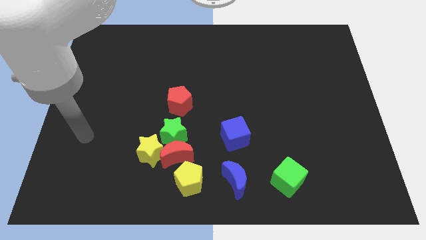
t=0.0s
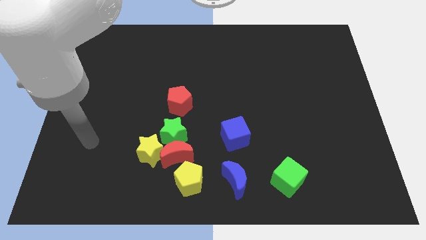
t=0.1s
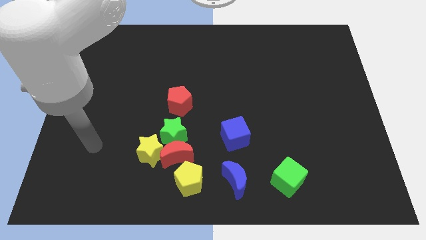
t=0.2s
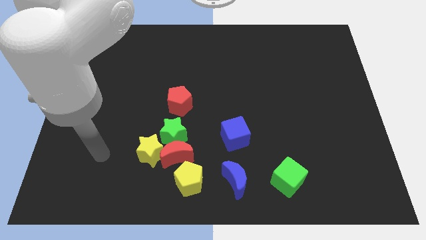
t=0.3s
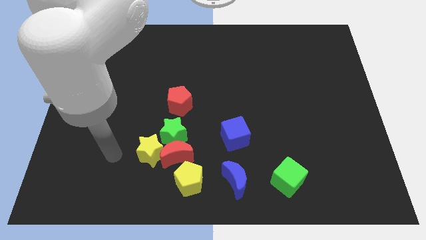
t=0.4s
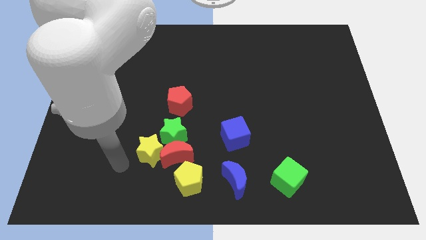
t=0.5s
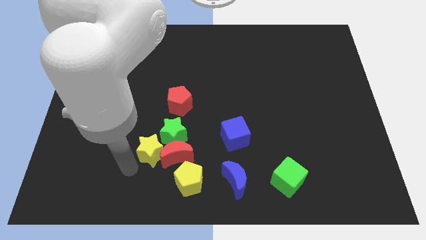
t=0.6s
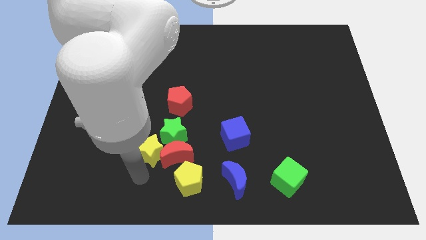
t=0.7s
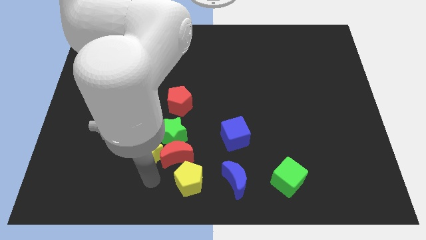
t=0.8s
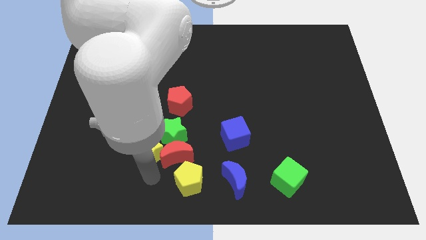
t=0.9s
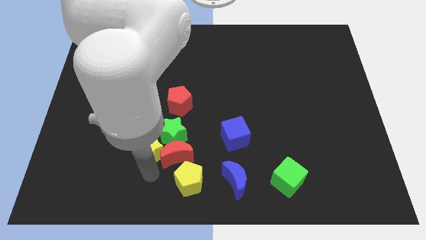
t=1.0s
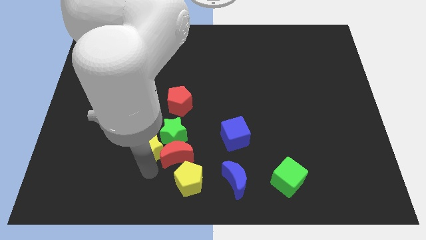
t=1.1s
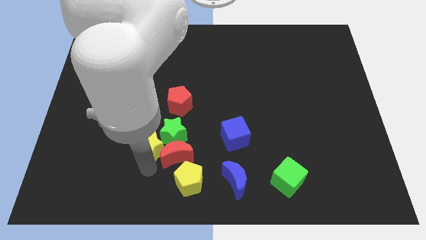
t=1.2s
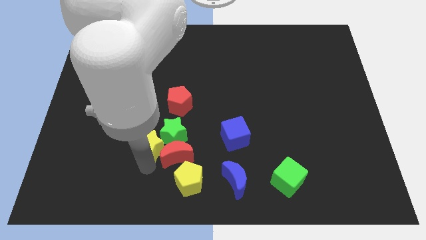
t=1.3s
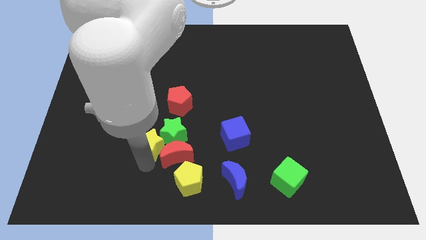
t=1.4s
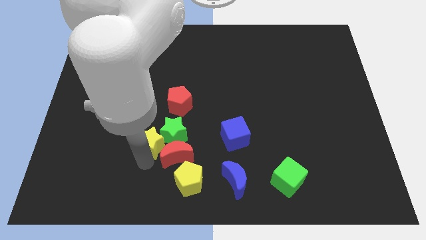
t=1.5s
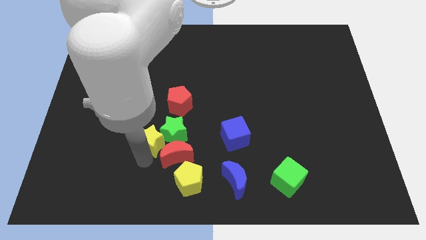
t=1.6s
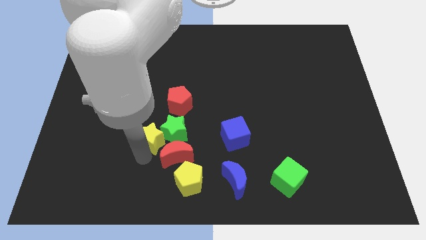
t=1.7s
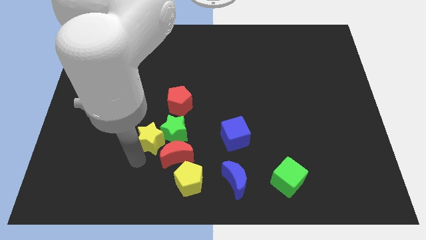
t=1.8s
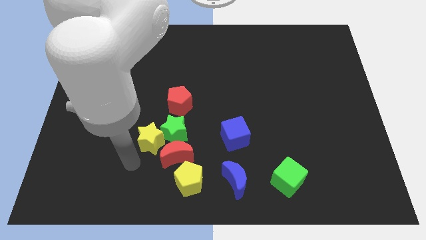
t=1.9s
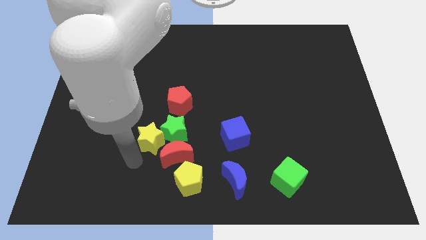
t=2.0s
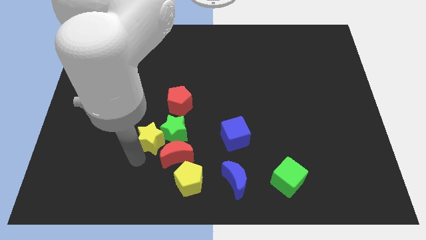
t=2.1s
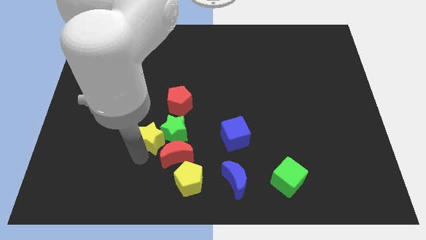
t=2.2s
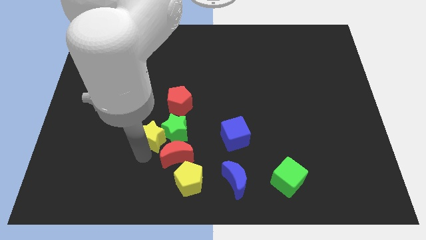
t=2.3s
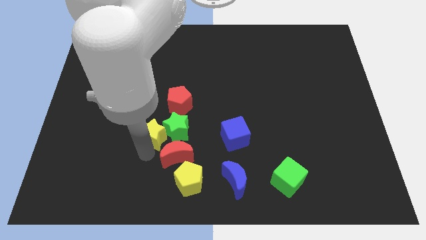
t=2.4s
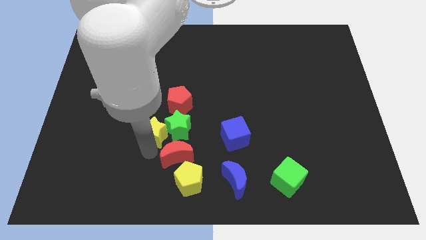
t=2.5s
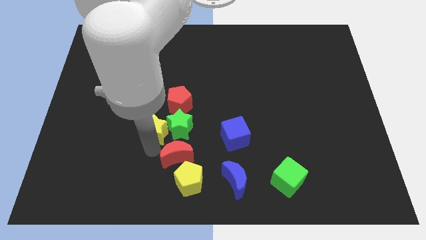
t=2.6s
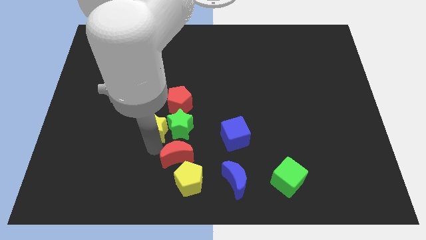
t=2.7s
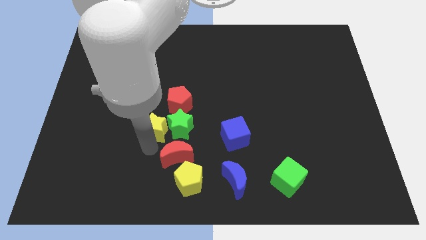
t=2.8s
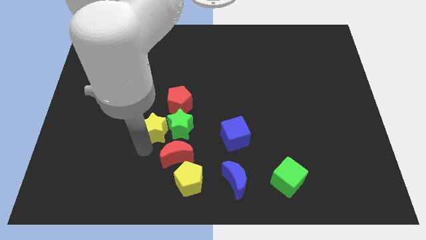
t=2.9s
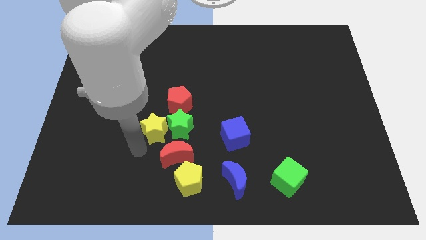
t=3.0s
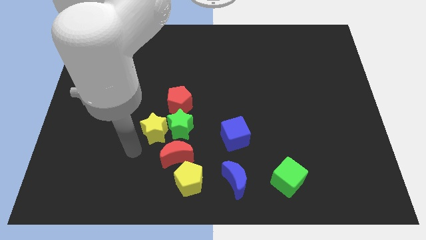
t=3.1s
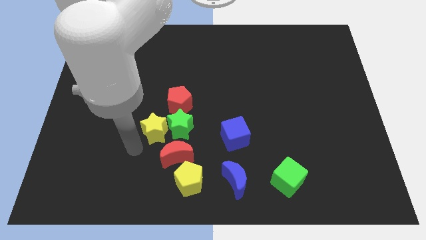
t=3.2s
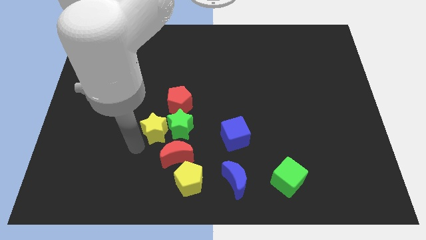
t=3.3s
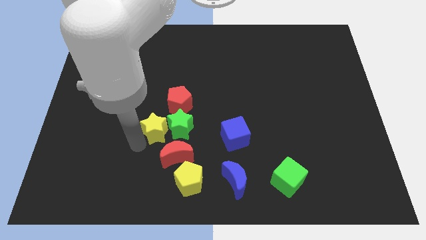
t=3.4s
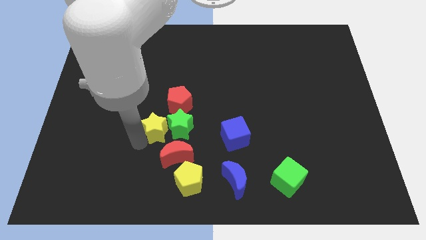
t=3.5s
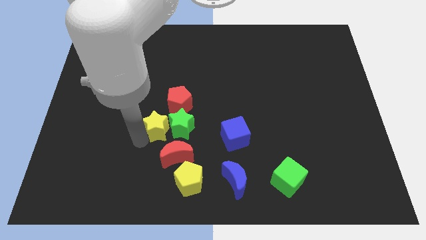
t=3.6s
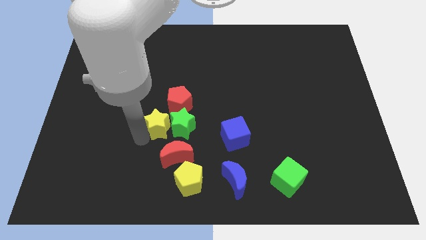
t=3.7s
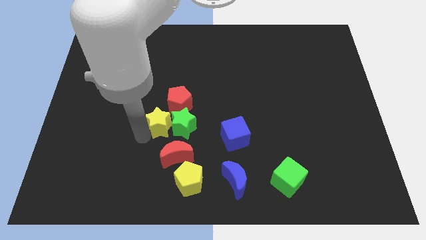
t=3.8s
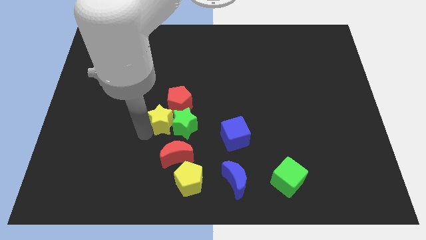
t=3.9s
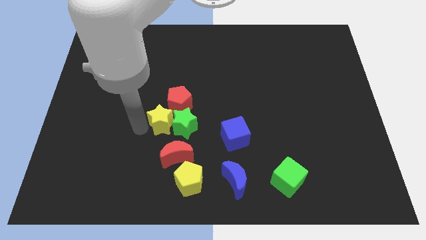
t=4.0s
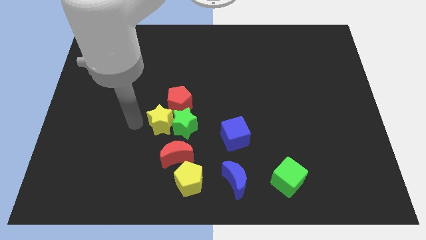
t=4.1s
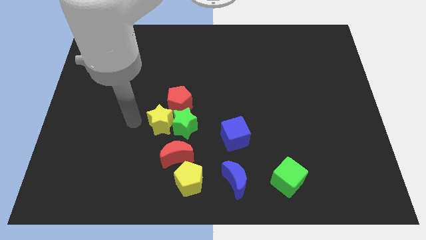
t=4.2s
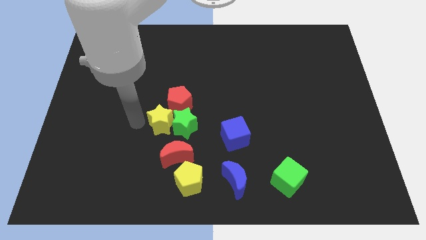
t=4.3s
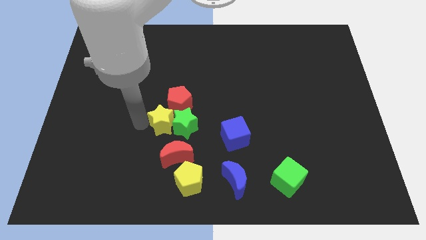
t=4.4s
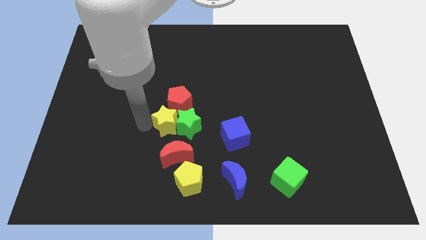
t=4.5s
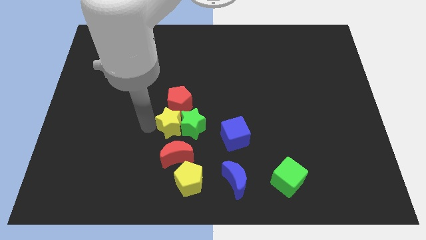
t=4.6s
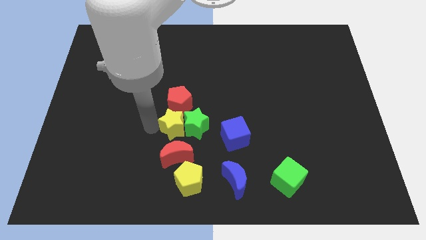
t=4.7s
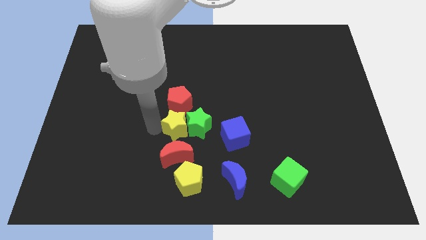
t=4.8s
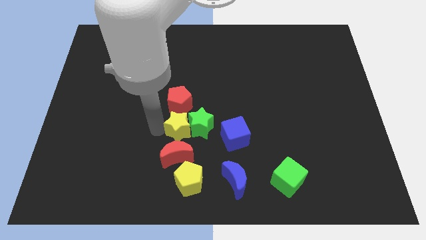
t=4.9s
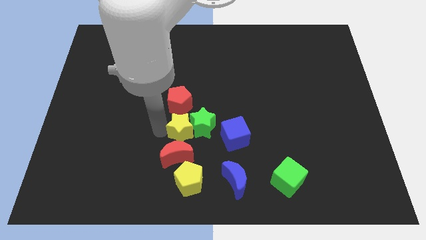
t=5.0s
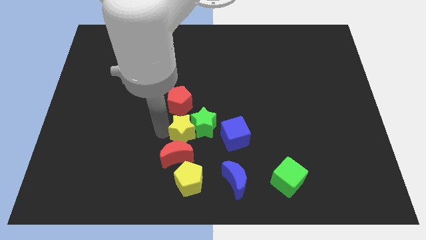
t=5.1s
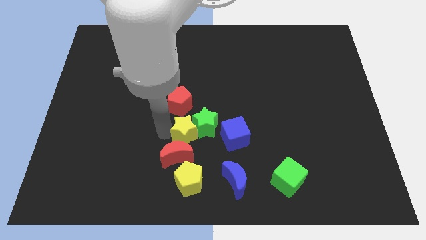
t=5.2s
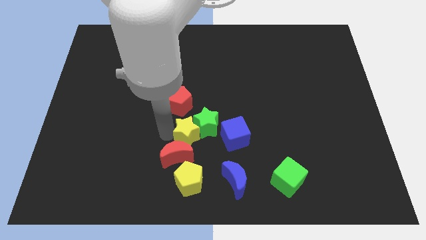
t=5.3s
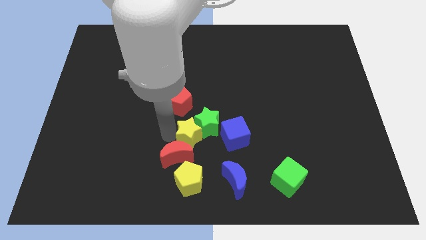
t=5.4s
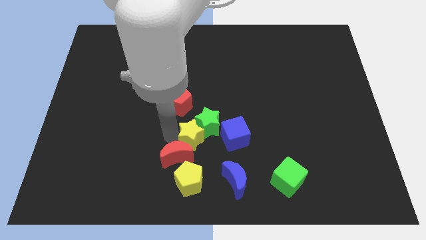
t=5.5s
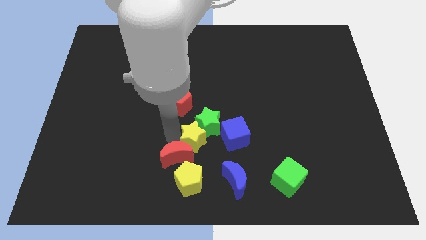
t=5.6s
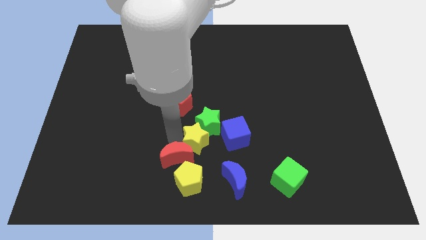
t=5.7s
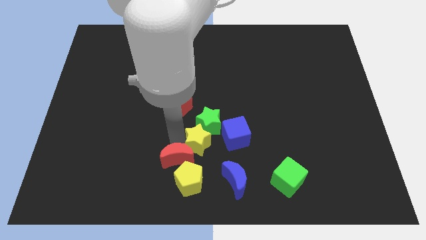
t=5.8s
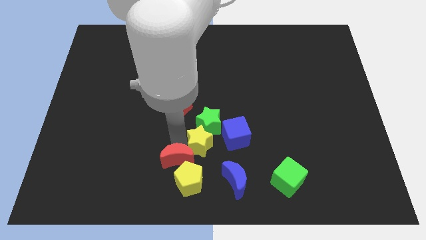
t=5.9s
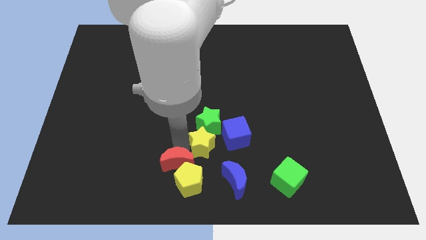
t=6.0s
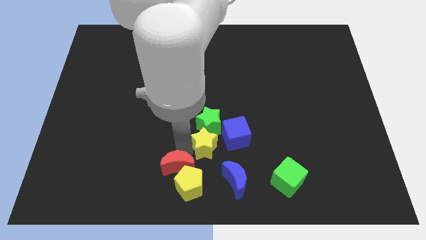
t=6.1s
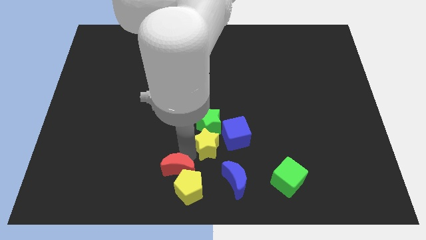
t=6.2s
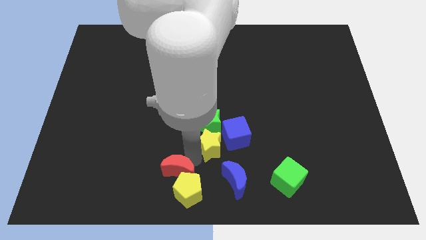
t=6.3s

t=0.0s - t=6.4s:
slide the yellow star next to the blue cube

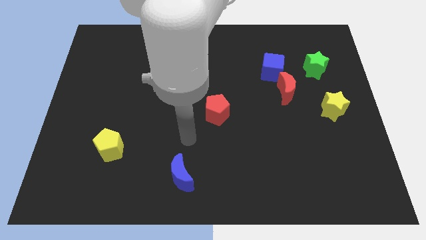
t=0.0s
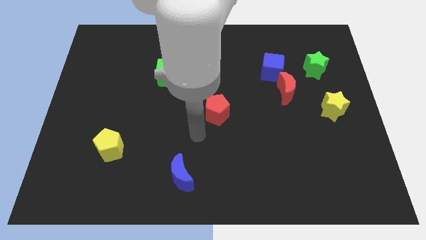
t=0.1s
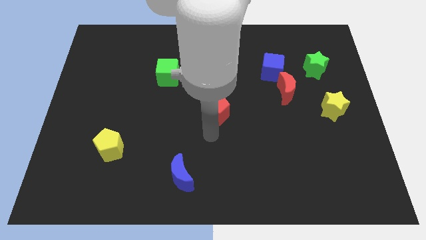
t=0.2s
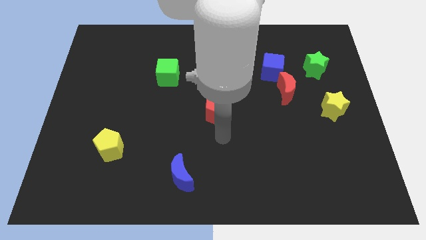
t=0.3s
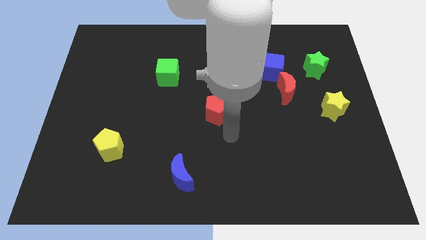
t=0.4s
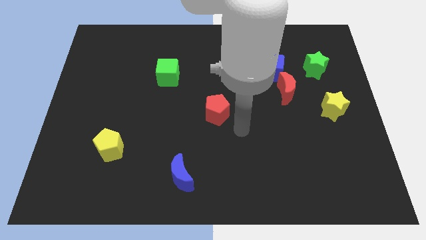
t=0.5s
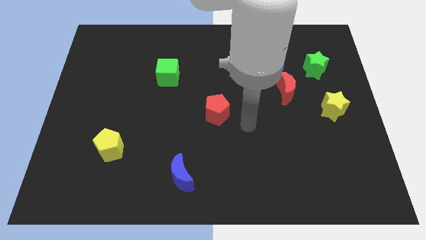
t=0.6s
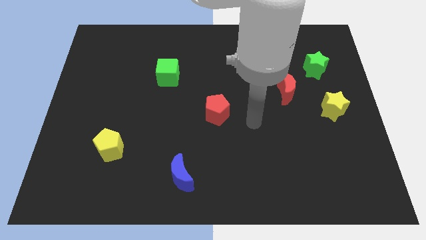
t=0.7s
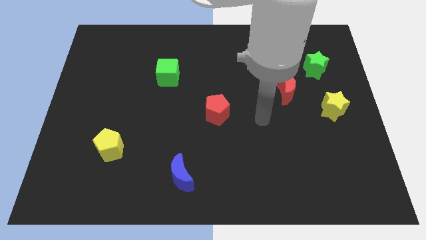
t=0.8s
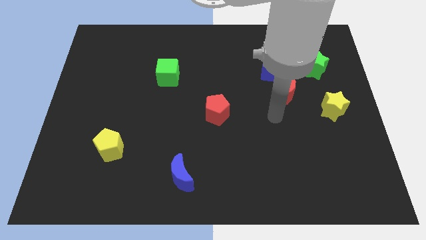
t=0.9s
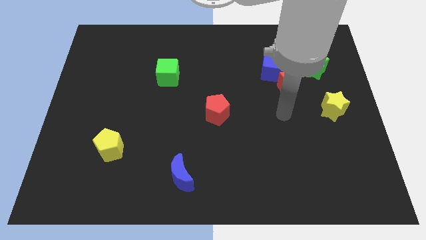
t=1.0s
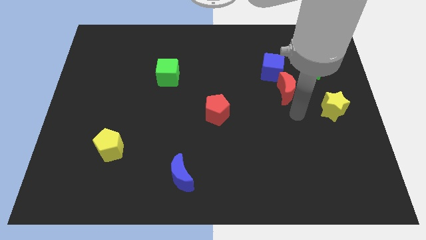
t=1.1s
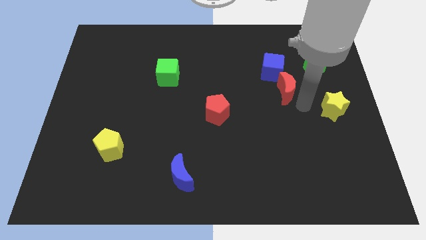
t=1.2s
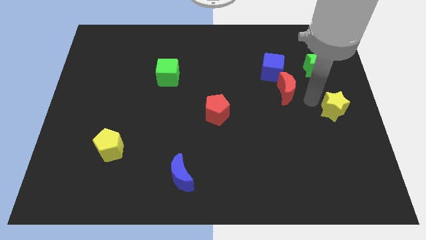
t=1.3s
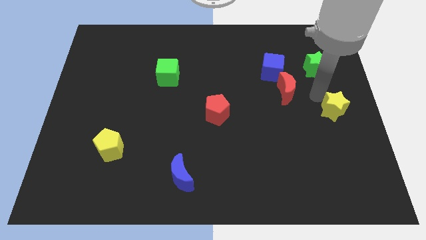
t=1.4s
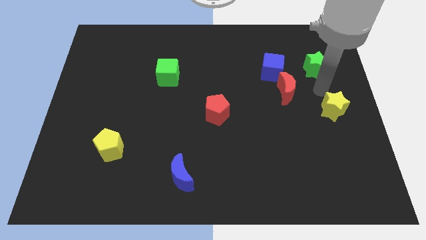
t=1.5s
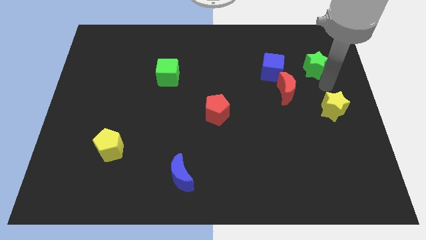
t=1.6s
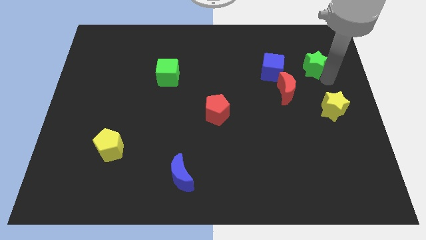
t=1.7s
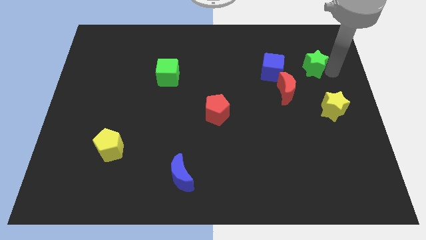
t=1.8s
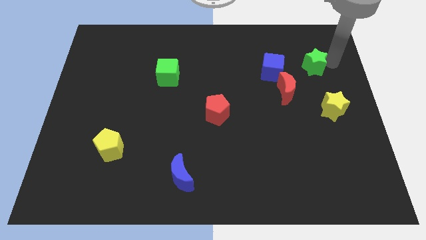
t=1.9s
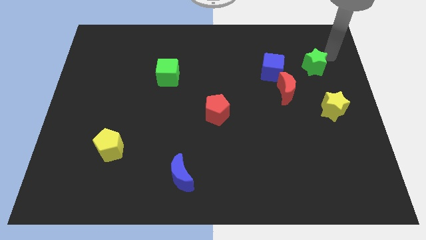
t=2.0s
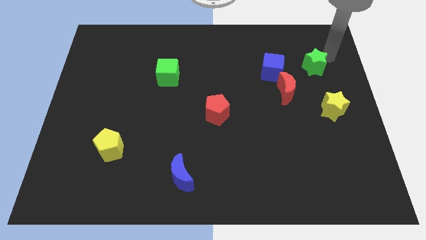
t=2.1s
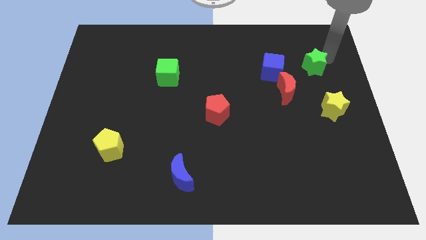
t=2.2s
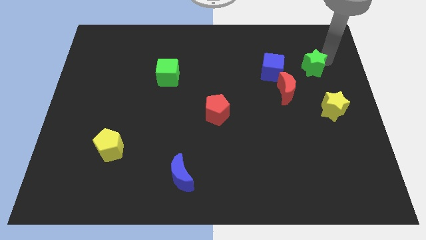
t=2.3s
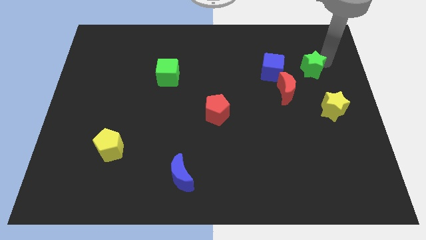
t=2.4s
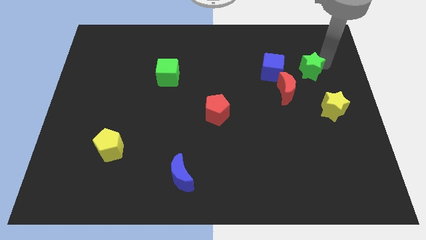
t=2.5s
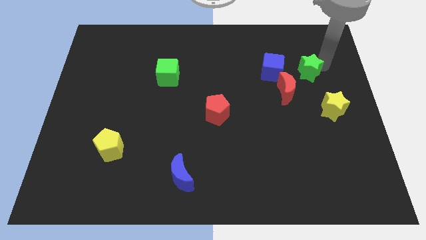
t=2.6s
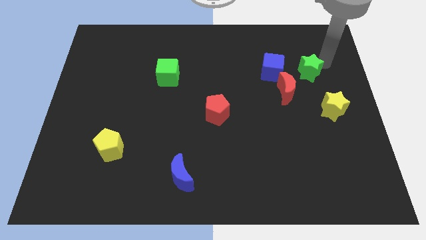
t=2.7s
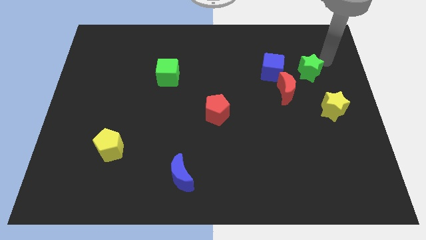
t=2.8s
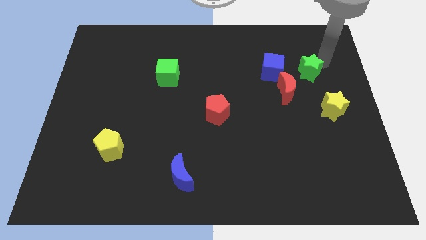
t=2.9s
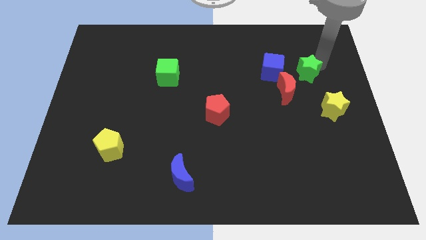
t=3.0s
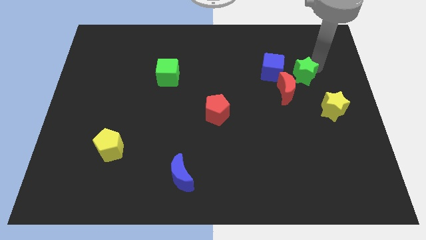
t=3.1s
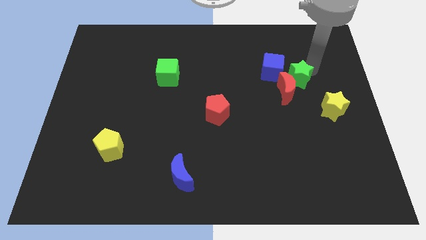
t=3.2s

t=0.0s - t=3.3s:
slide the green star next to the red moon
